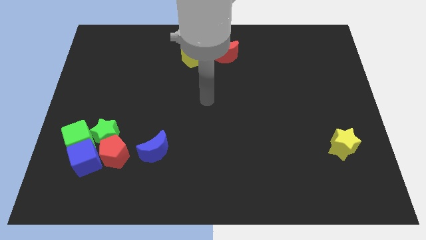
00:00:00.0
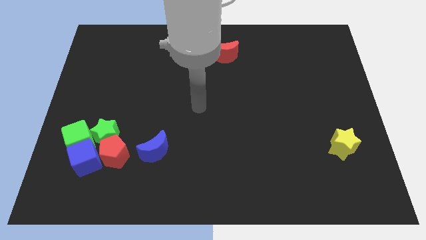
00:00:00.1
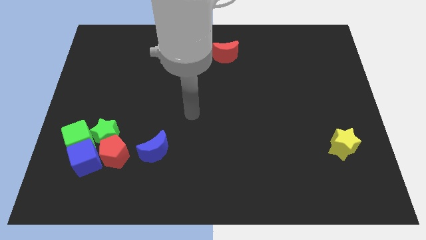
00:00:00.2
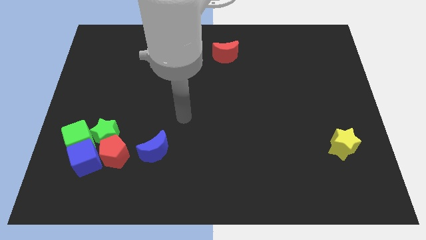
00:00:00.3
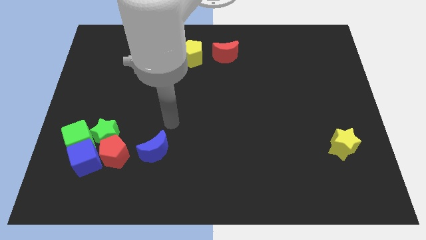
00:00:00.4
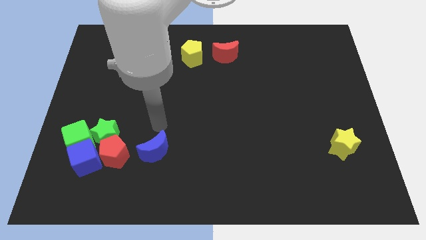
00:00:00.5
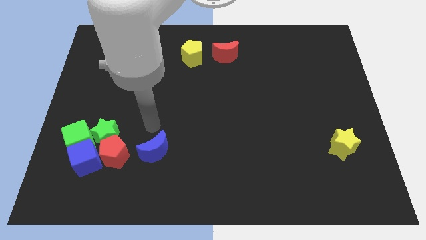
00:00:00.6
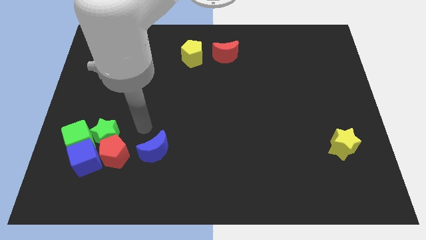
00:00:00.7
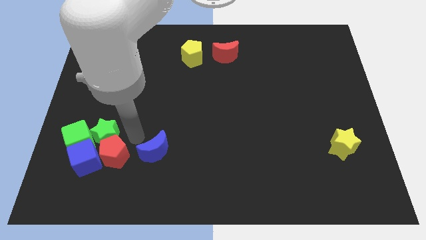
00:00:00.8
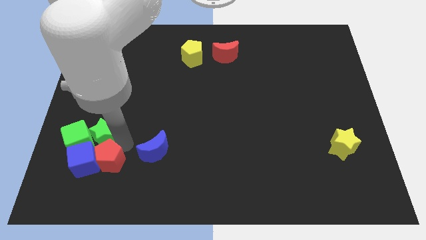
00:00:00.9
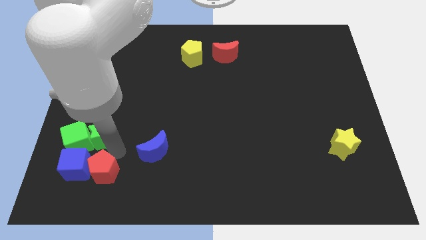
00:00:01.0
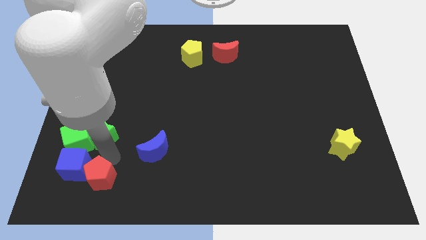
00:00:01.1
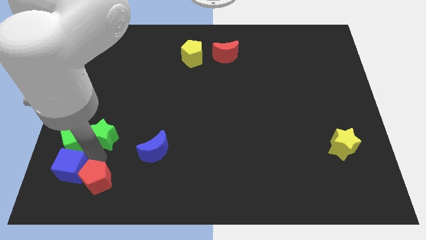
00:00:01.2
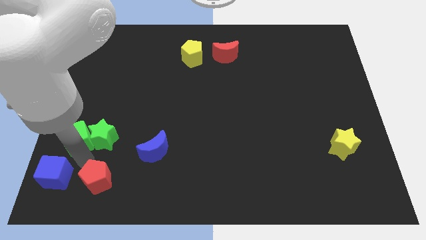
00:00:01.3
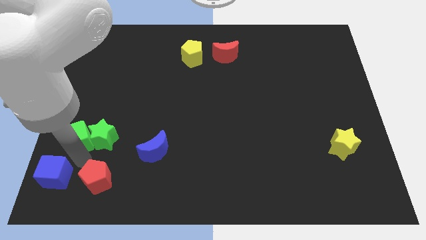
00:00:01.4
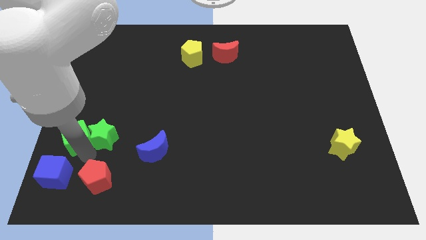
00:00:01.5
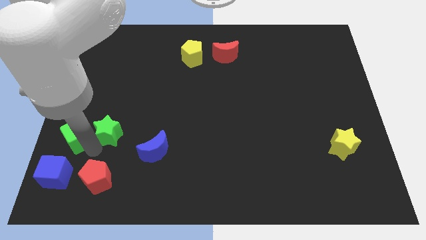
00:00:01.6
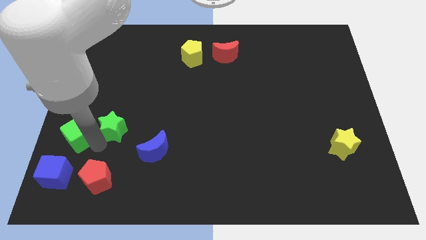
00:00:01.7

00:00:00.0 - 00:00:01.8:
separate the green star from the red pentagon, green cube, and blue cube

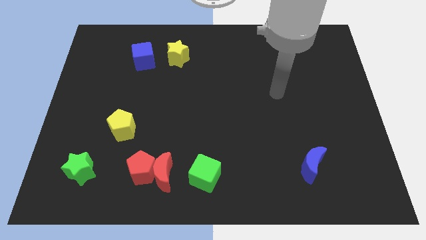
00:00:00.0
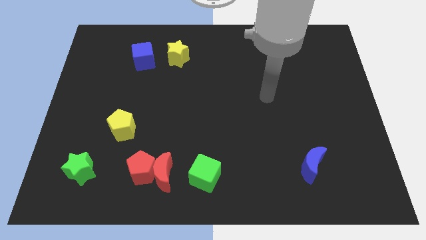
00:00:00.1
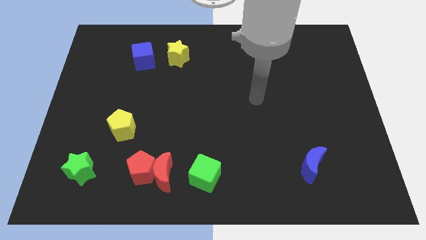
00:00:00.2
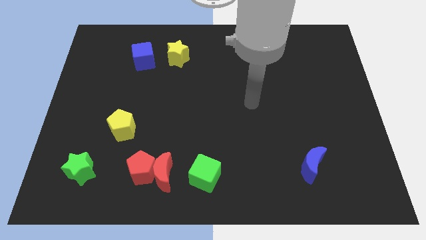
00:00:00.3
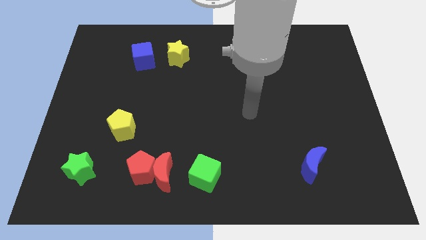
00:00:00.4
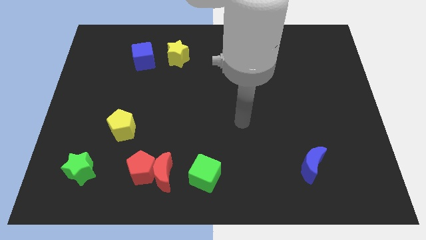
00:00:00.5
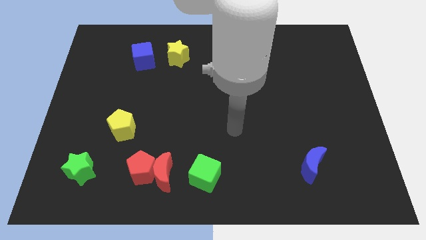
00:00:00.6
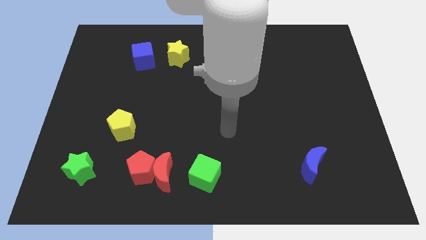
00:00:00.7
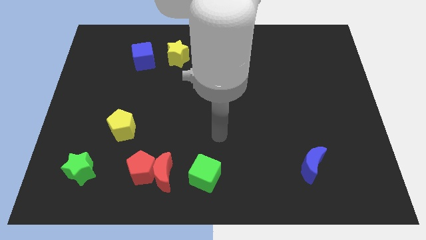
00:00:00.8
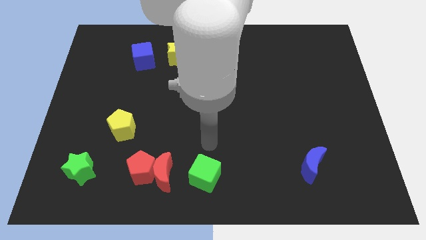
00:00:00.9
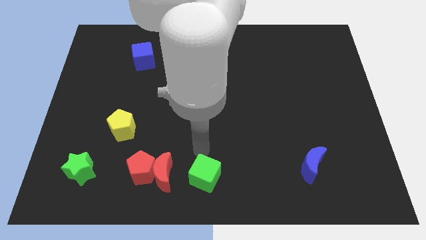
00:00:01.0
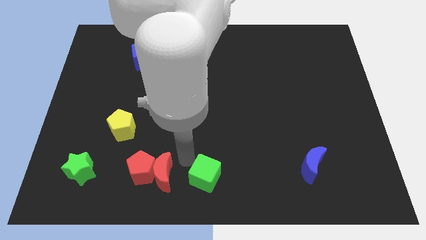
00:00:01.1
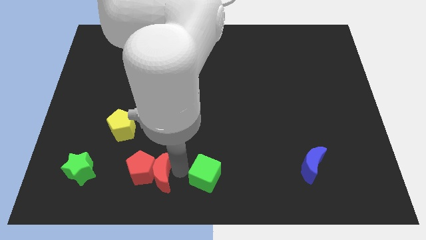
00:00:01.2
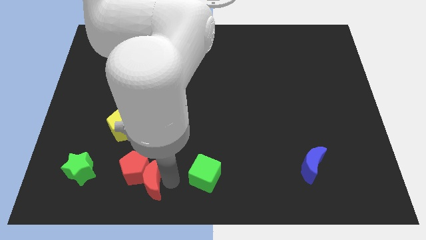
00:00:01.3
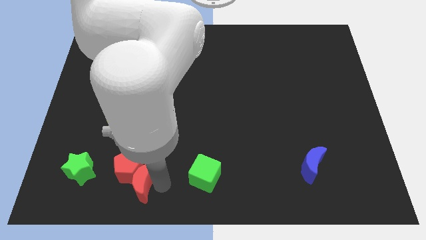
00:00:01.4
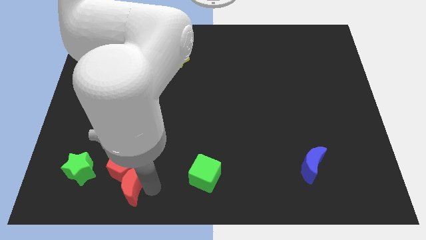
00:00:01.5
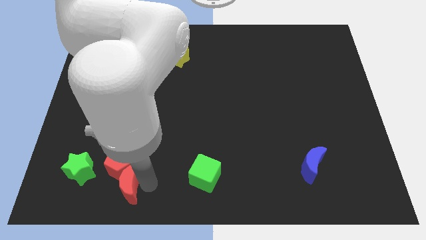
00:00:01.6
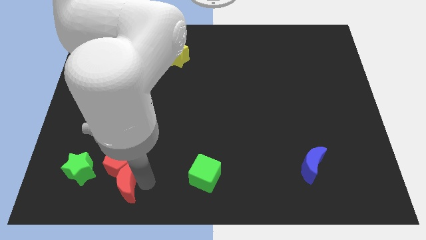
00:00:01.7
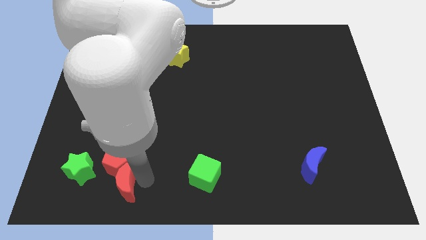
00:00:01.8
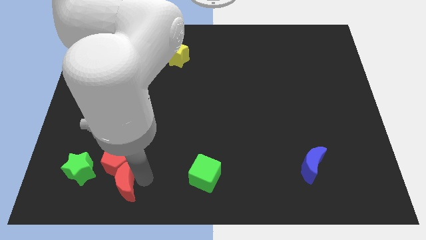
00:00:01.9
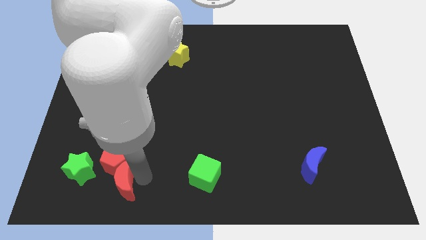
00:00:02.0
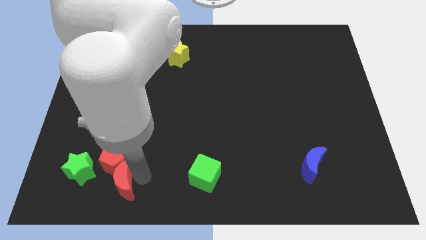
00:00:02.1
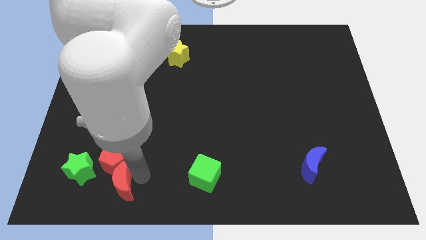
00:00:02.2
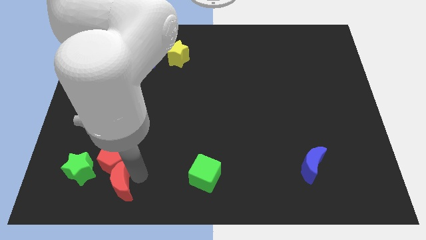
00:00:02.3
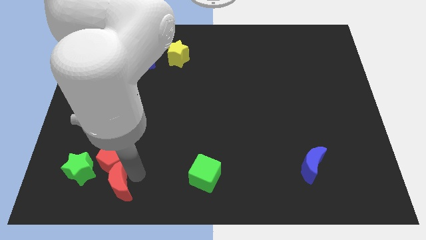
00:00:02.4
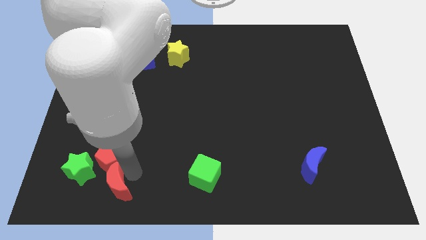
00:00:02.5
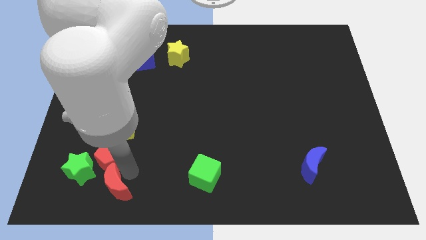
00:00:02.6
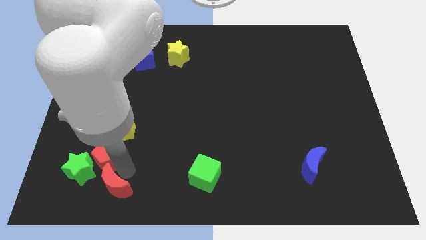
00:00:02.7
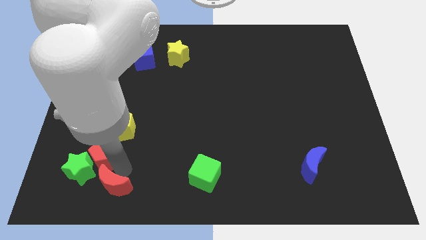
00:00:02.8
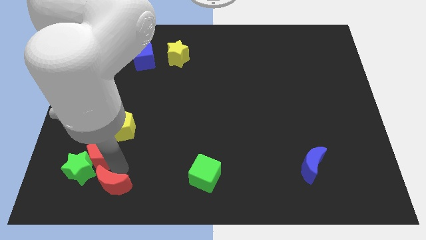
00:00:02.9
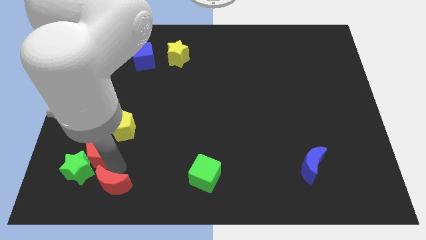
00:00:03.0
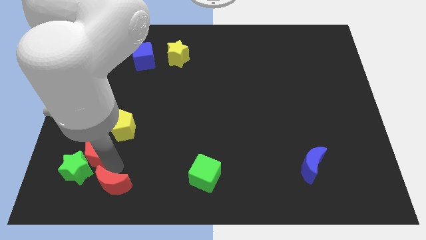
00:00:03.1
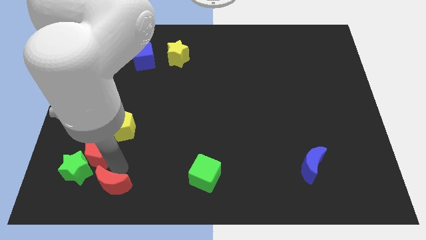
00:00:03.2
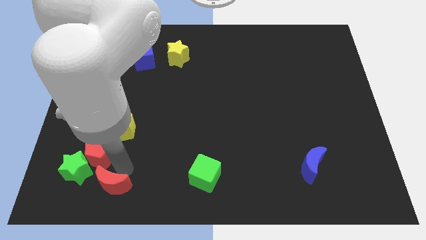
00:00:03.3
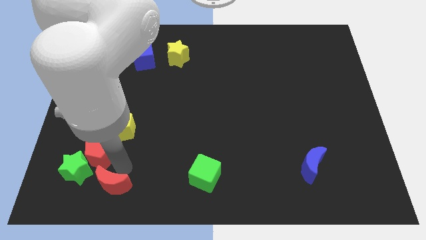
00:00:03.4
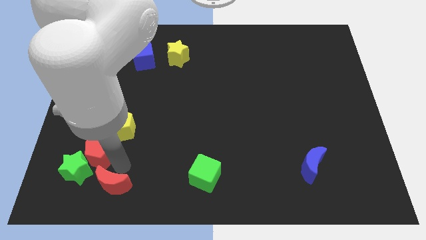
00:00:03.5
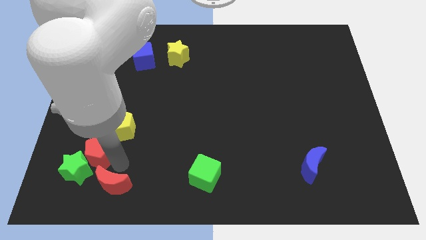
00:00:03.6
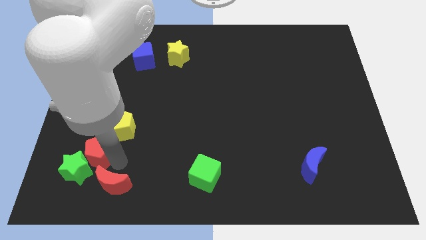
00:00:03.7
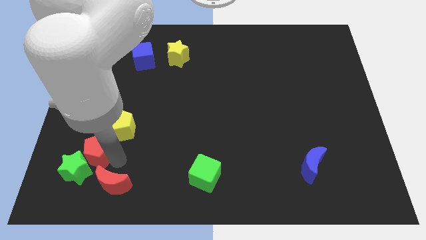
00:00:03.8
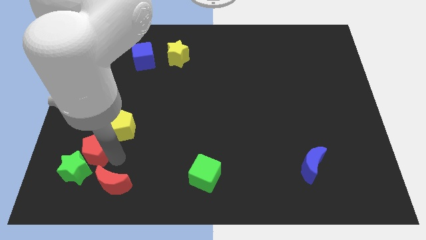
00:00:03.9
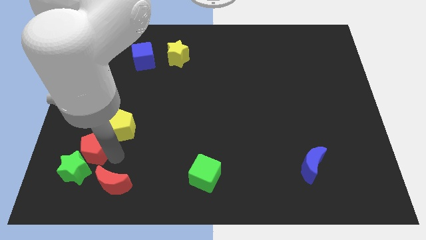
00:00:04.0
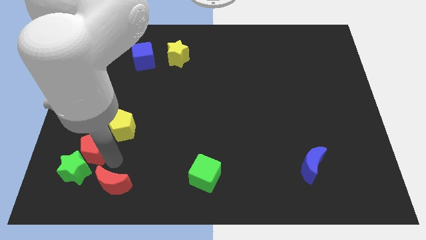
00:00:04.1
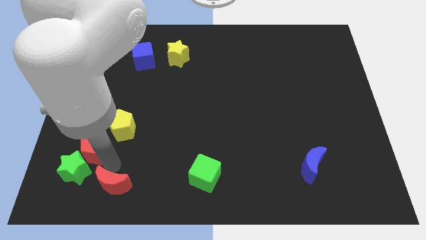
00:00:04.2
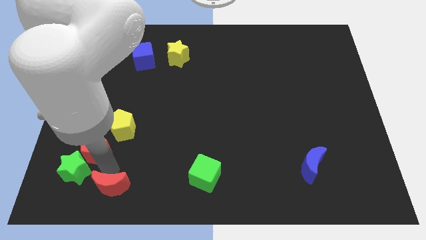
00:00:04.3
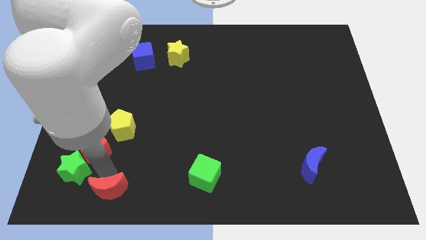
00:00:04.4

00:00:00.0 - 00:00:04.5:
move the red pentagon away from the red moon

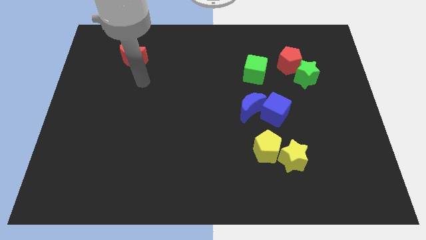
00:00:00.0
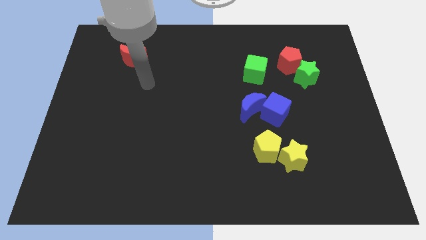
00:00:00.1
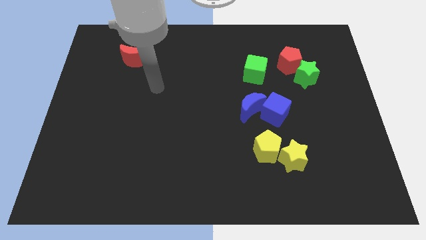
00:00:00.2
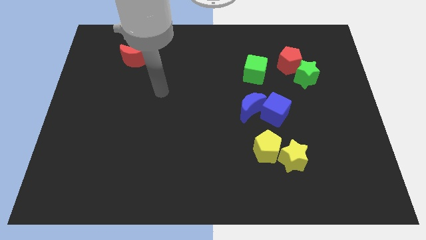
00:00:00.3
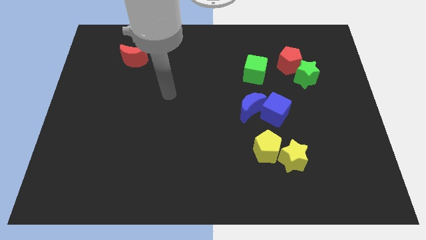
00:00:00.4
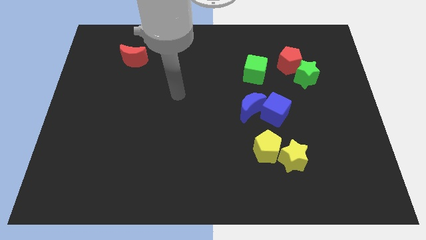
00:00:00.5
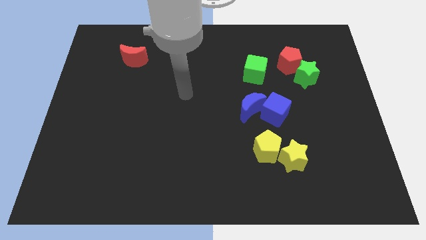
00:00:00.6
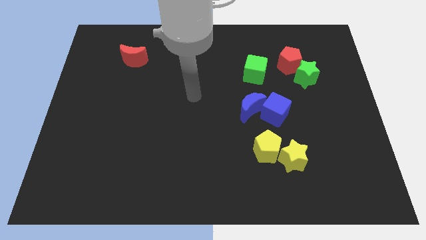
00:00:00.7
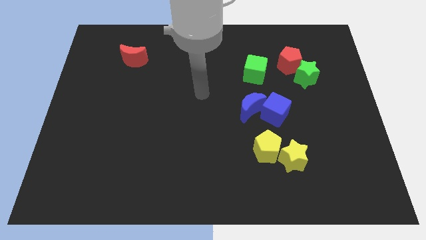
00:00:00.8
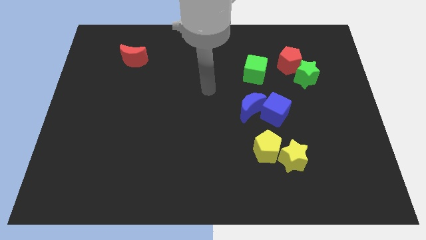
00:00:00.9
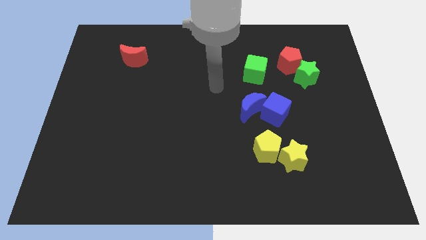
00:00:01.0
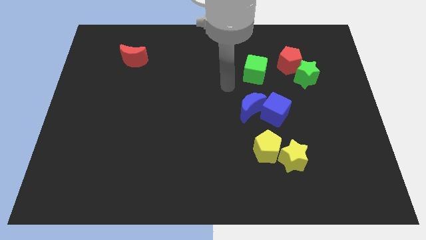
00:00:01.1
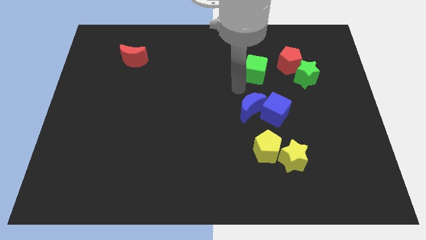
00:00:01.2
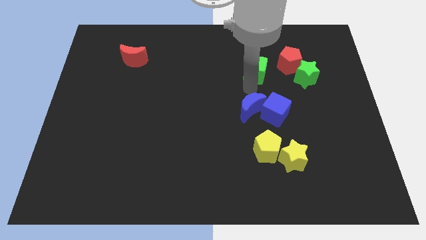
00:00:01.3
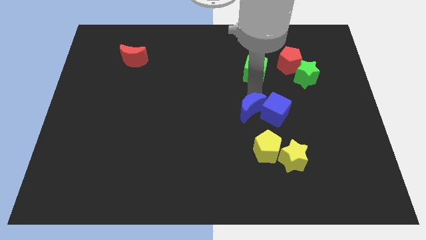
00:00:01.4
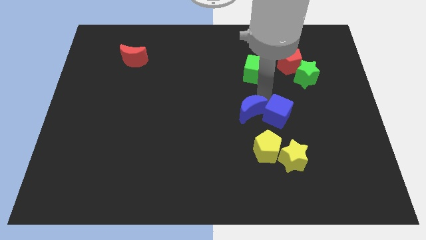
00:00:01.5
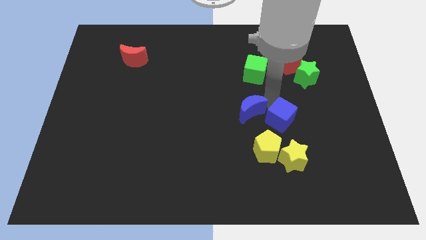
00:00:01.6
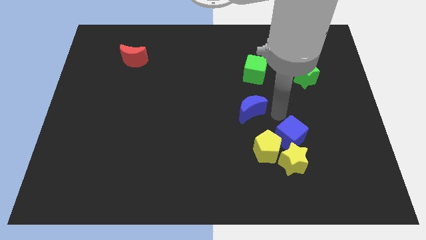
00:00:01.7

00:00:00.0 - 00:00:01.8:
separate the blue moon from the blue cube

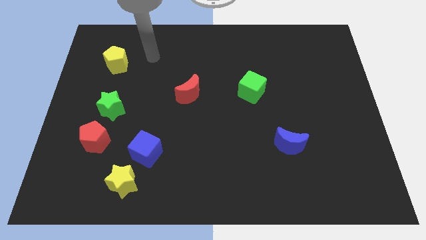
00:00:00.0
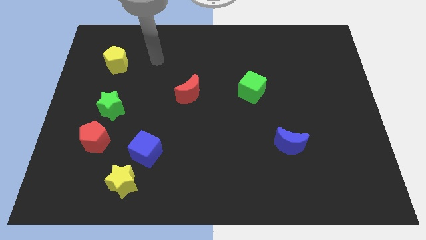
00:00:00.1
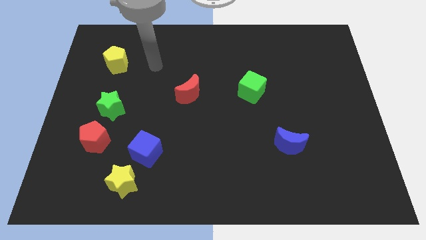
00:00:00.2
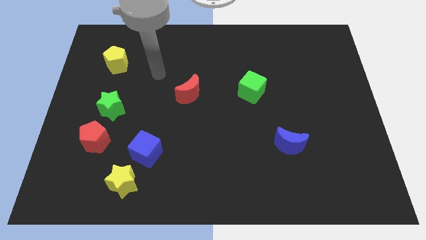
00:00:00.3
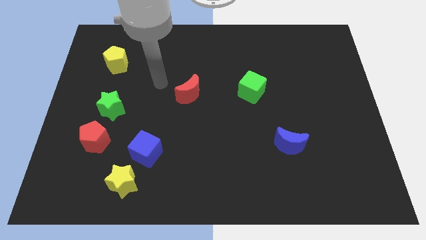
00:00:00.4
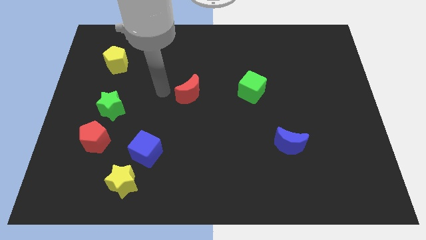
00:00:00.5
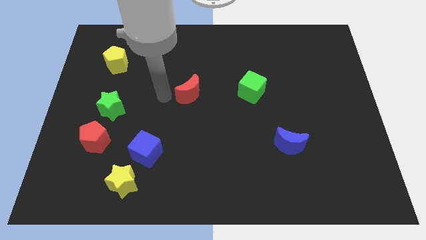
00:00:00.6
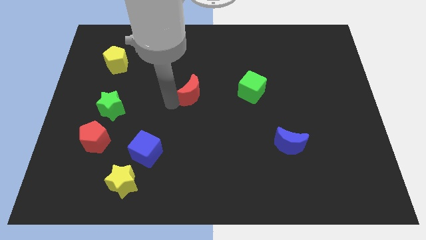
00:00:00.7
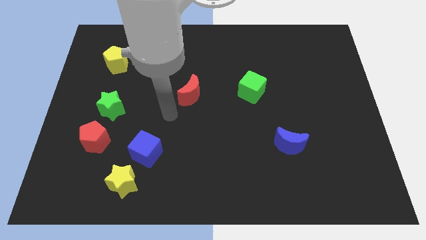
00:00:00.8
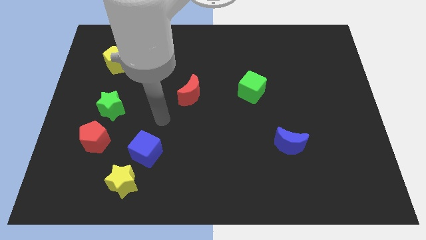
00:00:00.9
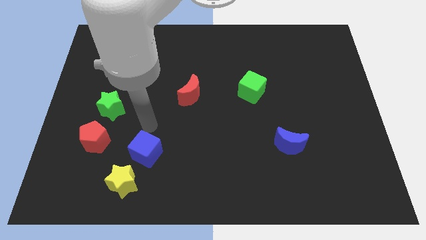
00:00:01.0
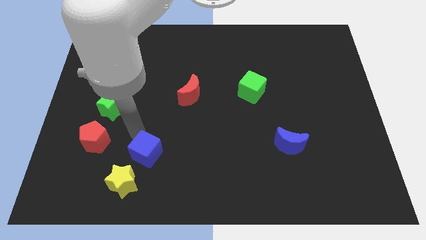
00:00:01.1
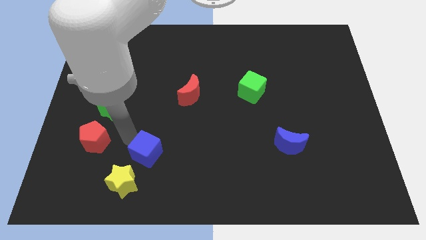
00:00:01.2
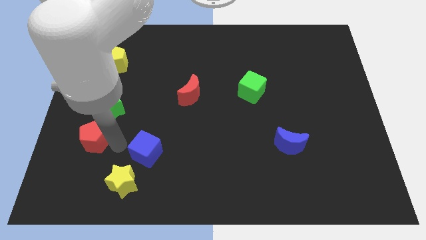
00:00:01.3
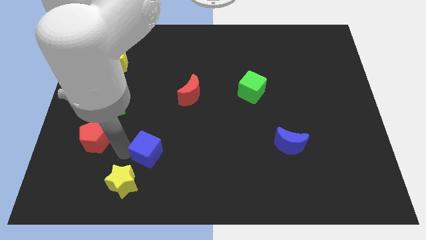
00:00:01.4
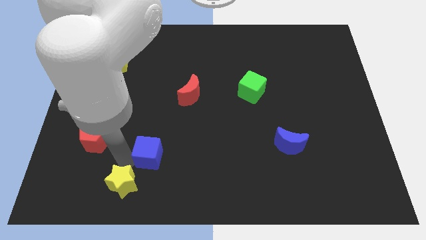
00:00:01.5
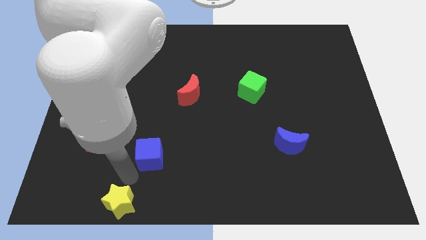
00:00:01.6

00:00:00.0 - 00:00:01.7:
separate the blue cube from the yellow star
